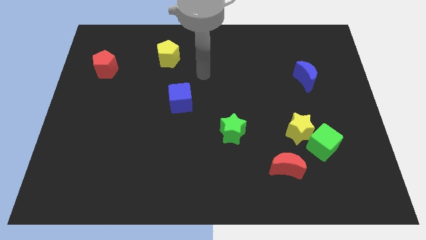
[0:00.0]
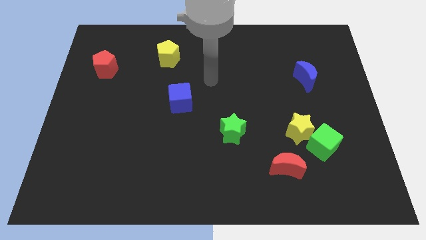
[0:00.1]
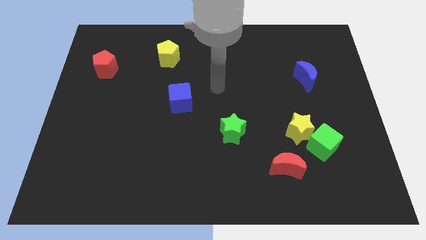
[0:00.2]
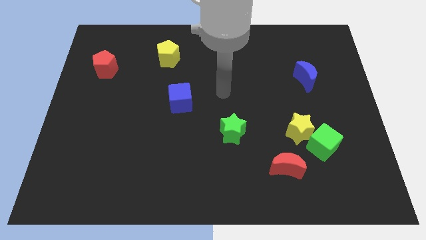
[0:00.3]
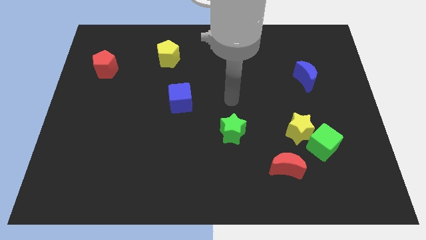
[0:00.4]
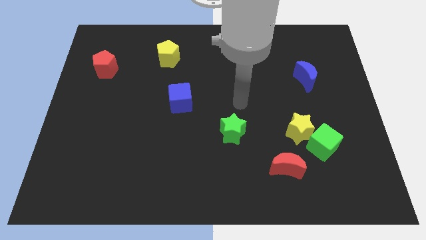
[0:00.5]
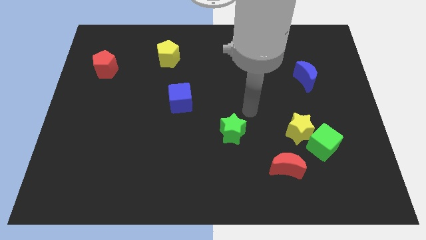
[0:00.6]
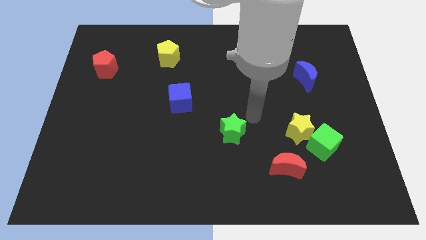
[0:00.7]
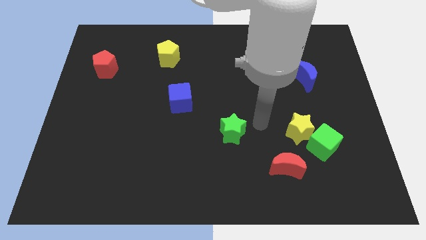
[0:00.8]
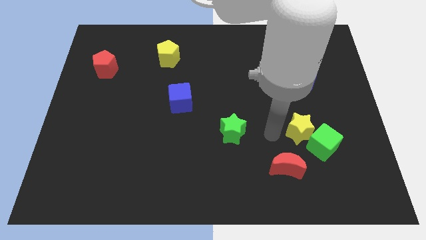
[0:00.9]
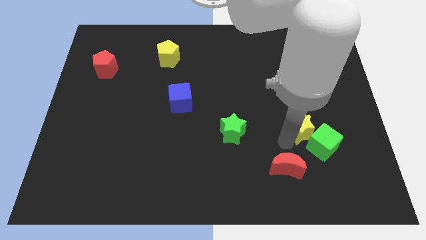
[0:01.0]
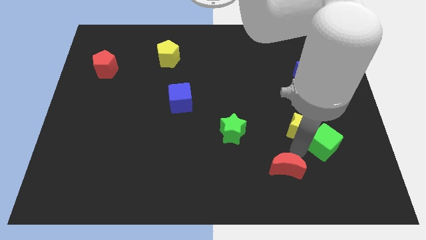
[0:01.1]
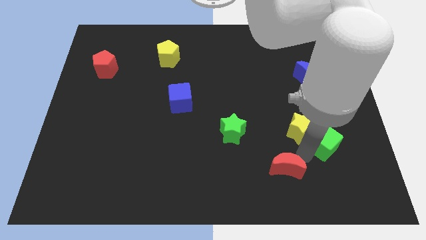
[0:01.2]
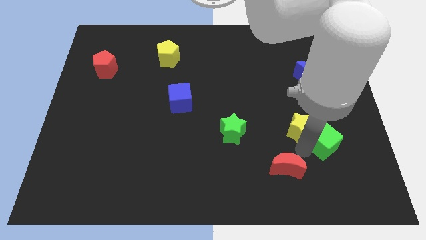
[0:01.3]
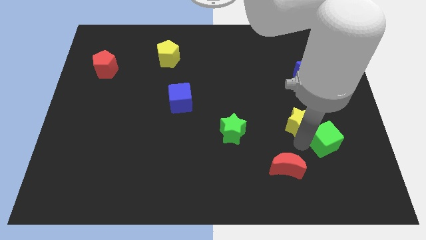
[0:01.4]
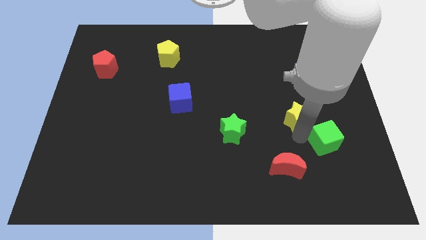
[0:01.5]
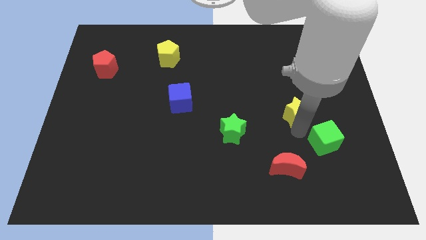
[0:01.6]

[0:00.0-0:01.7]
separate the yellow star from the green cube and red moon

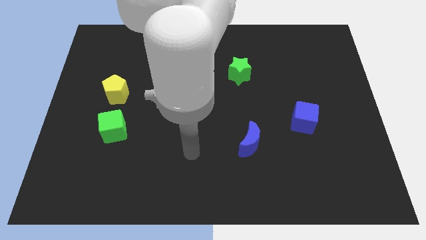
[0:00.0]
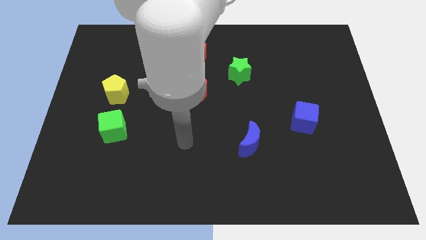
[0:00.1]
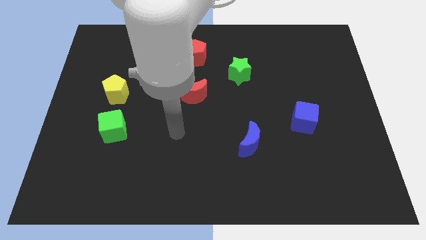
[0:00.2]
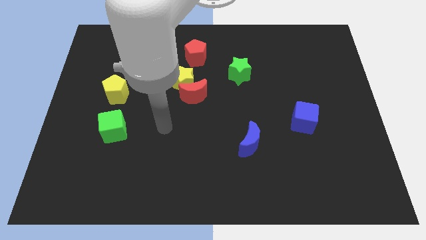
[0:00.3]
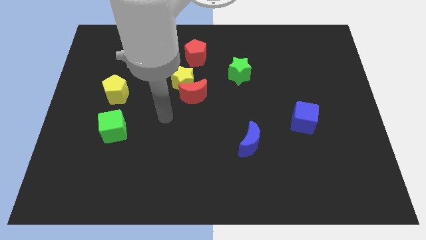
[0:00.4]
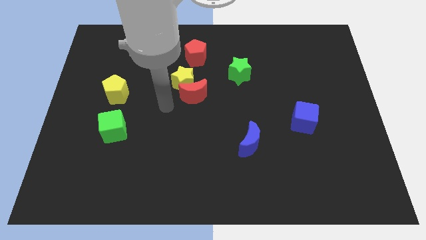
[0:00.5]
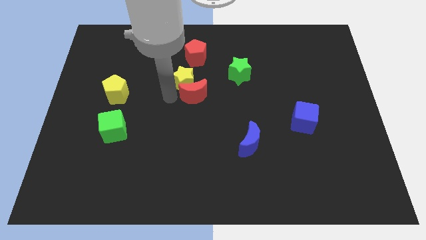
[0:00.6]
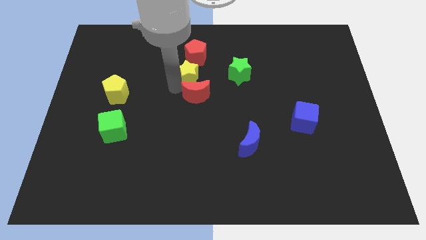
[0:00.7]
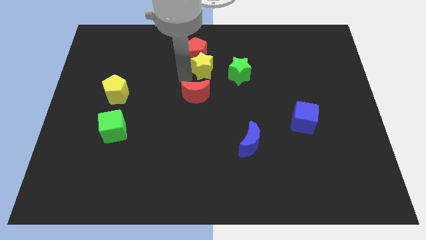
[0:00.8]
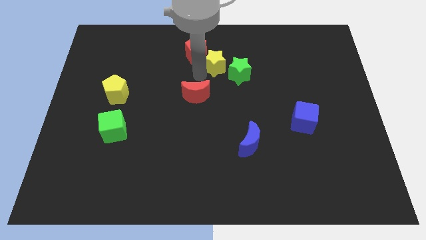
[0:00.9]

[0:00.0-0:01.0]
pull the red moon apart from the yellow star

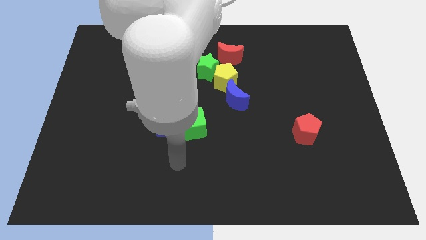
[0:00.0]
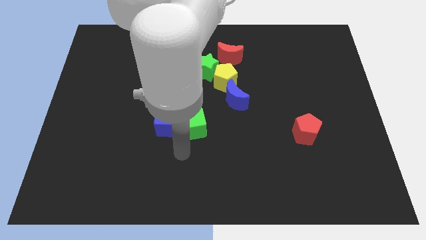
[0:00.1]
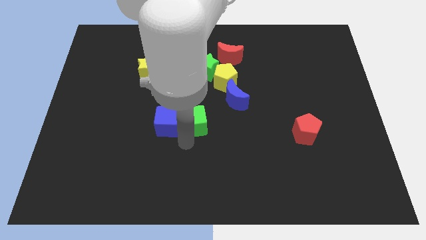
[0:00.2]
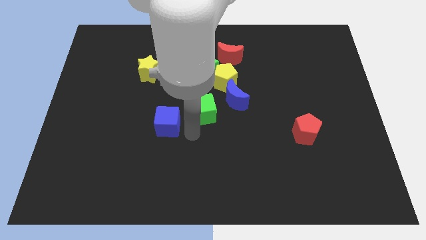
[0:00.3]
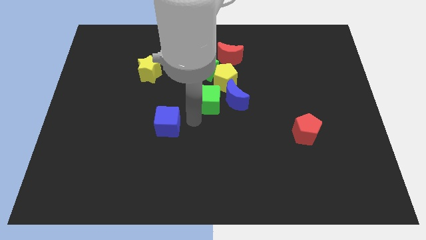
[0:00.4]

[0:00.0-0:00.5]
separate the blue cube from the green cube

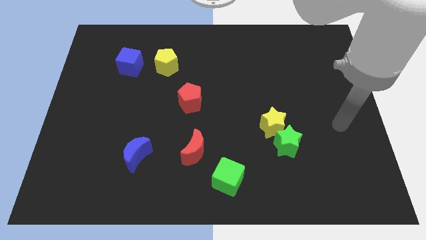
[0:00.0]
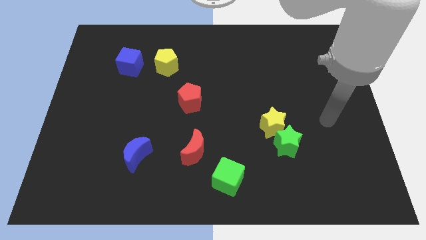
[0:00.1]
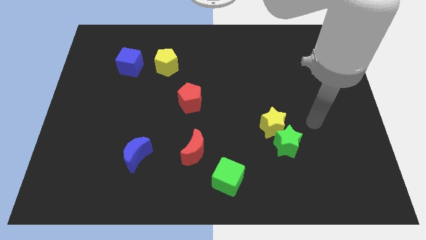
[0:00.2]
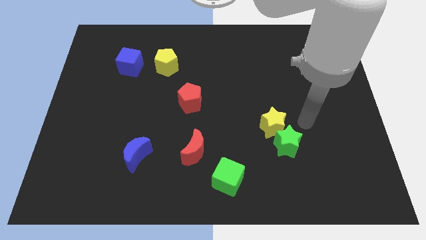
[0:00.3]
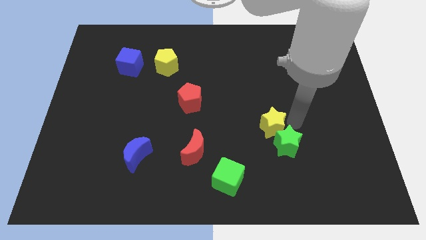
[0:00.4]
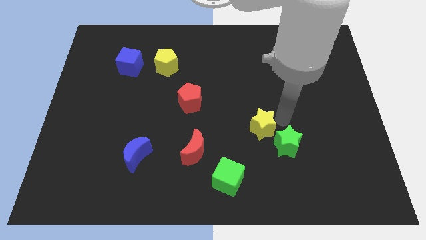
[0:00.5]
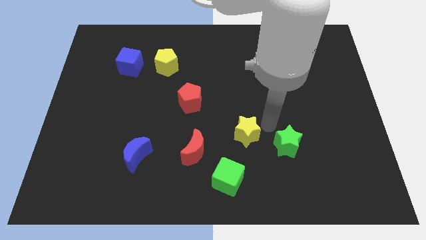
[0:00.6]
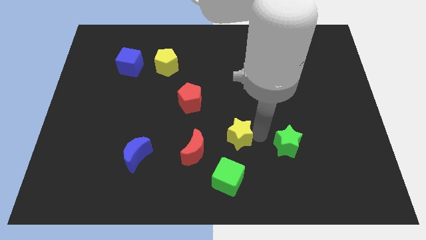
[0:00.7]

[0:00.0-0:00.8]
separate the green star from the yellow star

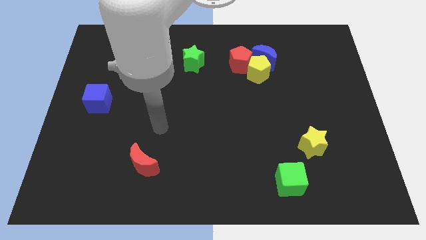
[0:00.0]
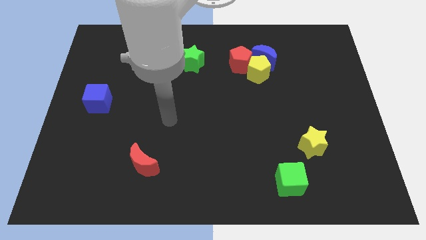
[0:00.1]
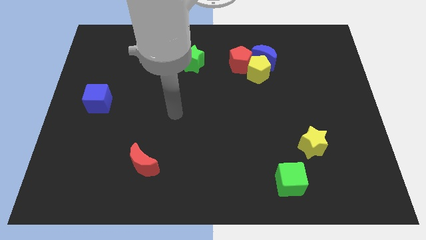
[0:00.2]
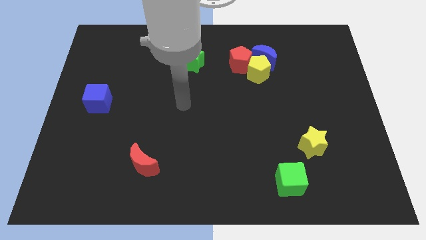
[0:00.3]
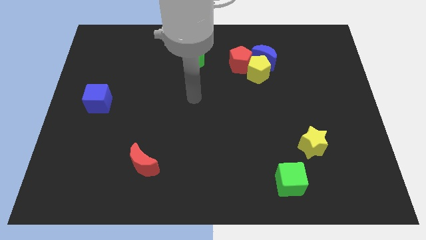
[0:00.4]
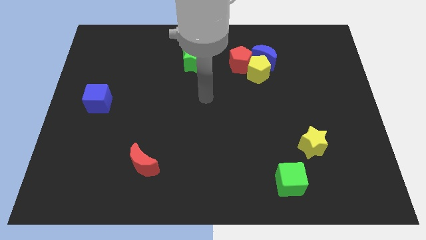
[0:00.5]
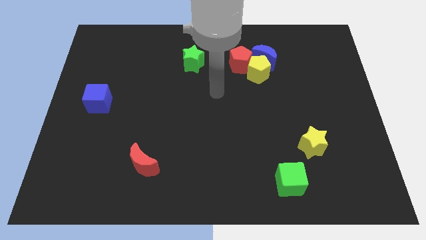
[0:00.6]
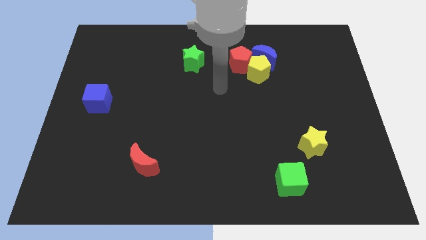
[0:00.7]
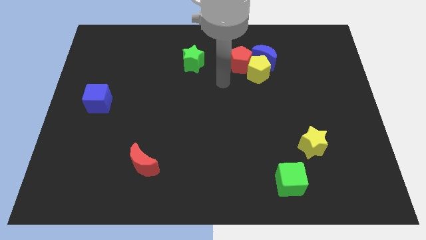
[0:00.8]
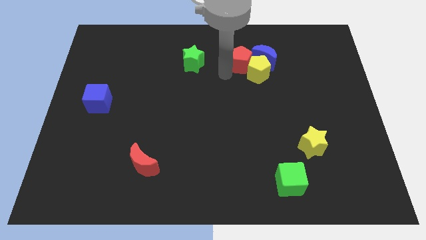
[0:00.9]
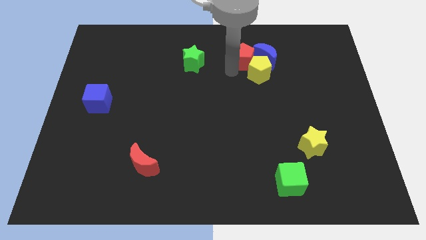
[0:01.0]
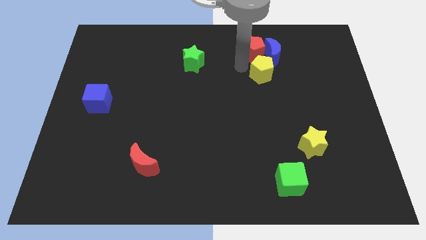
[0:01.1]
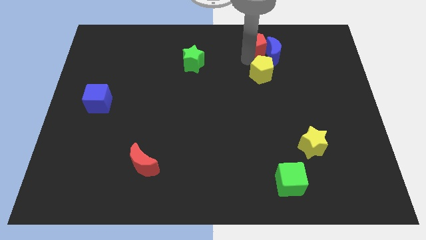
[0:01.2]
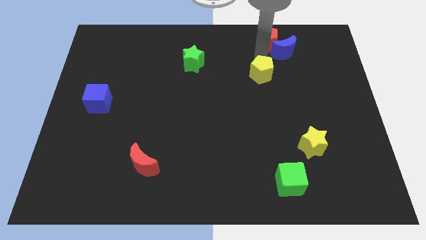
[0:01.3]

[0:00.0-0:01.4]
move the yellow pentagon away from the blue moon and red pentagon

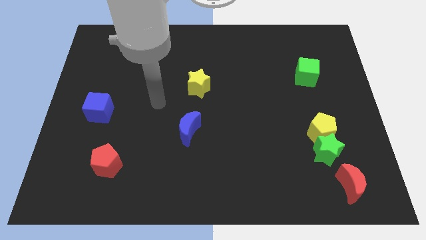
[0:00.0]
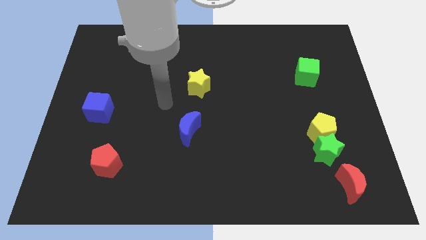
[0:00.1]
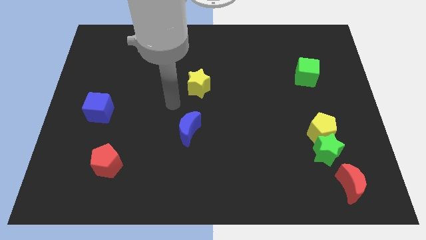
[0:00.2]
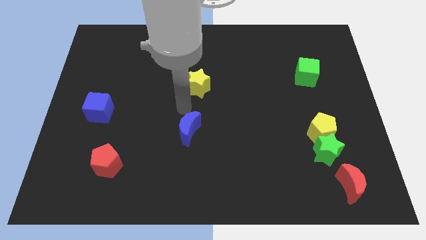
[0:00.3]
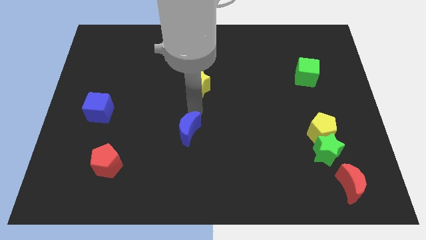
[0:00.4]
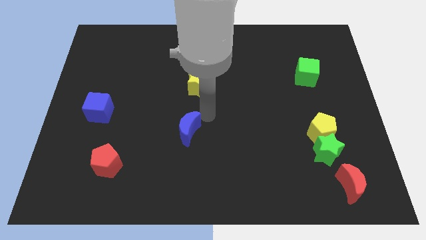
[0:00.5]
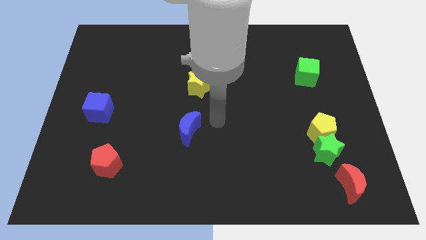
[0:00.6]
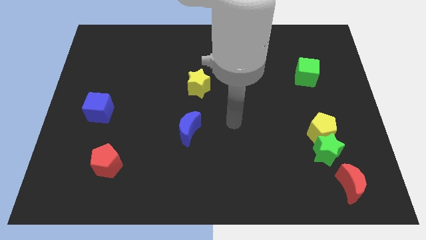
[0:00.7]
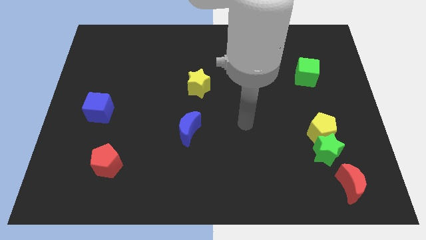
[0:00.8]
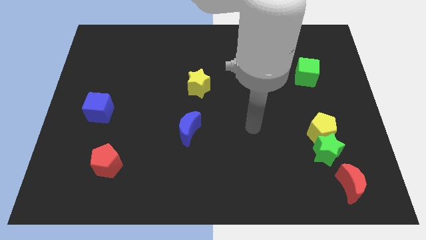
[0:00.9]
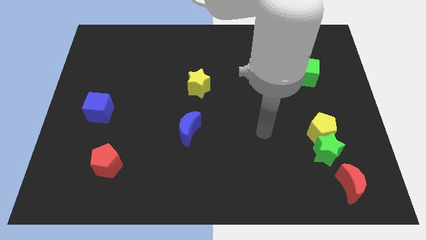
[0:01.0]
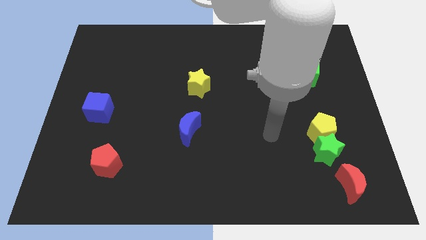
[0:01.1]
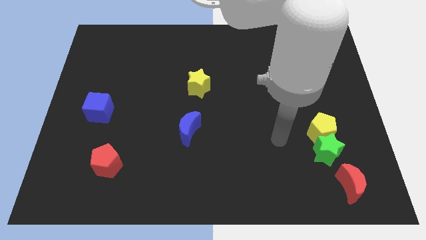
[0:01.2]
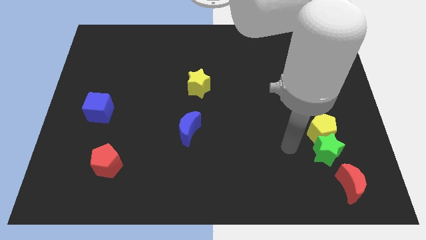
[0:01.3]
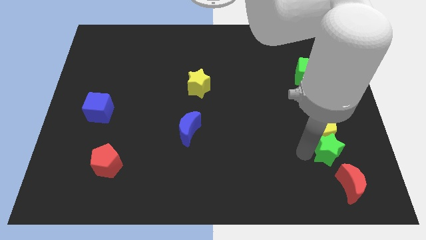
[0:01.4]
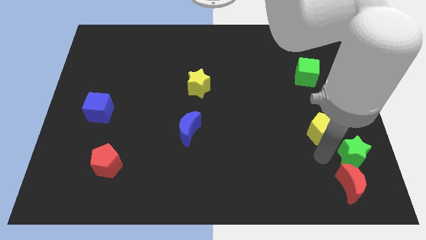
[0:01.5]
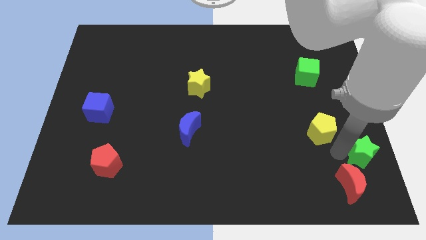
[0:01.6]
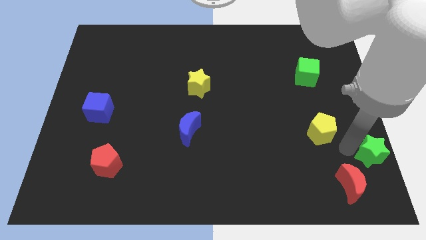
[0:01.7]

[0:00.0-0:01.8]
move the yellow pentagon away from the green star

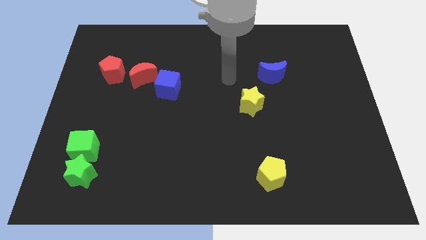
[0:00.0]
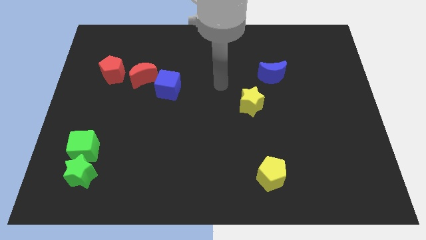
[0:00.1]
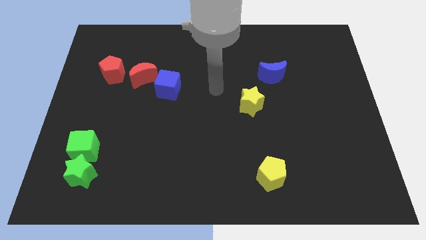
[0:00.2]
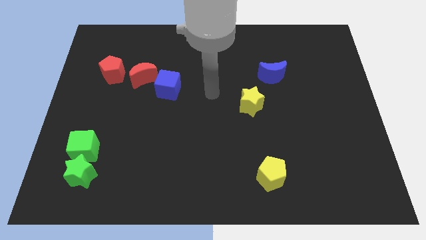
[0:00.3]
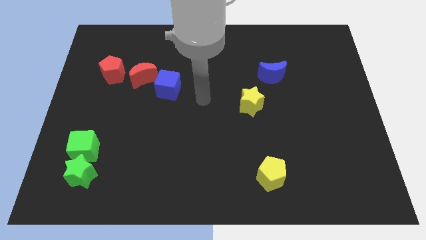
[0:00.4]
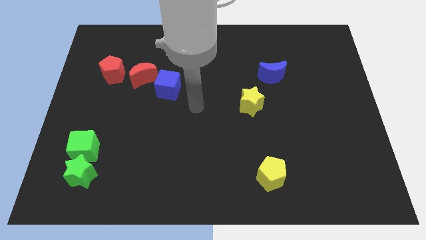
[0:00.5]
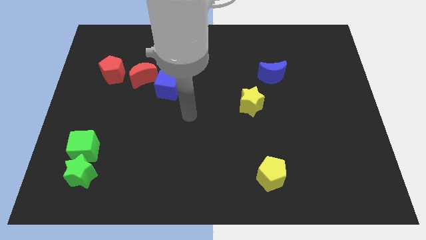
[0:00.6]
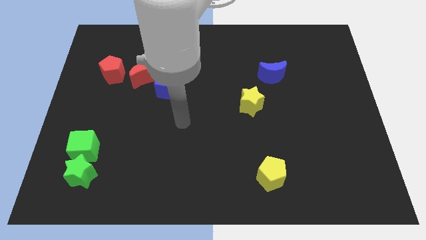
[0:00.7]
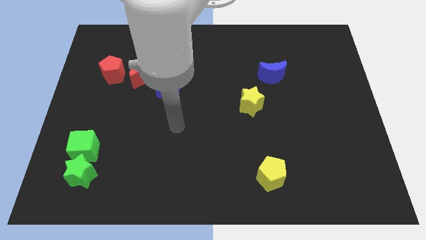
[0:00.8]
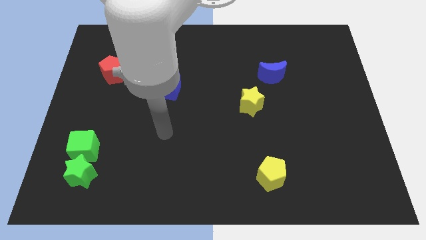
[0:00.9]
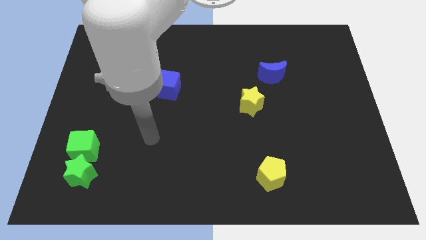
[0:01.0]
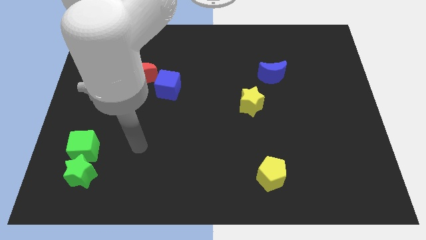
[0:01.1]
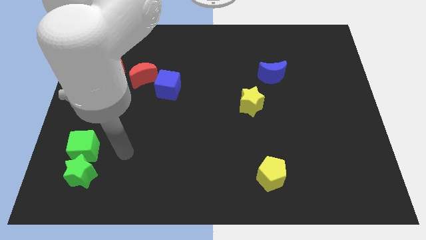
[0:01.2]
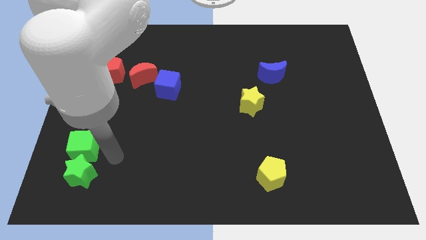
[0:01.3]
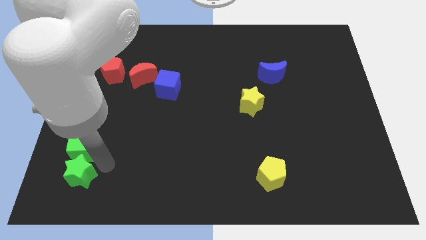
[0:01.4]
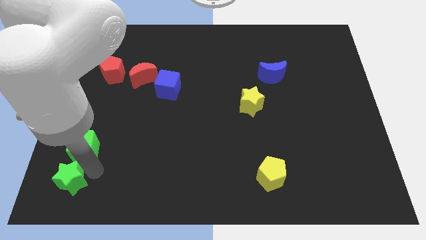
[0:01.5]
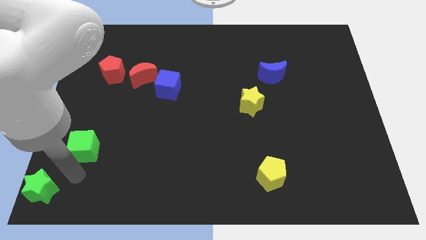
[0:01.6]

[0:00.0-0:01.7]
separate the green cube from the green star

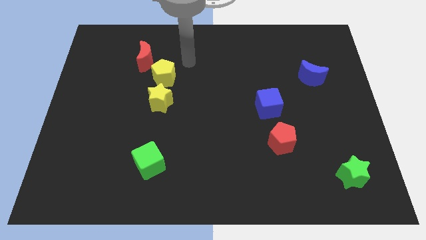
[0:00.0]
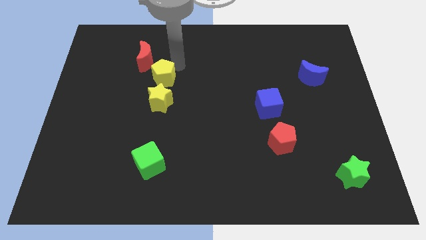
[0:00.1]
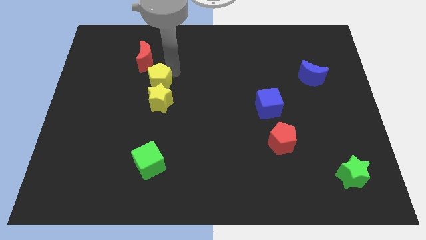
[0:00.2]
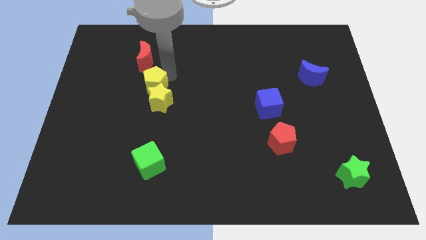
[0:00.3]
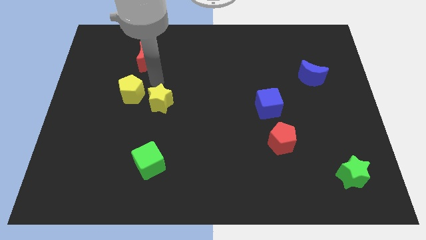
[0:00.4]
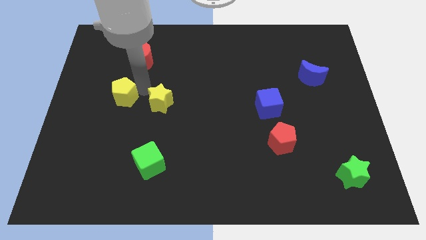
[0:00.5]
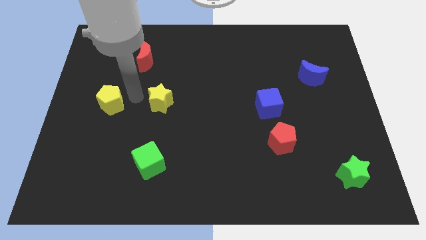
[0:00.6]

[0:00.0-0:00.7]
separate the yellow star from the yellow pentagon
